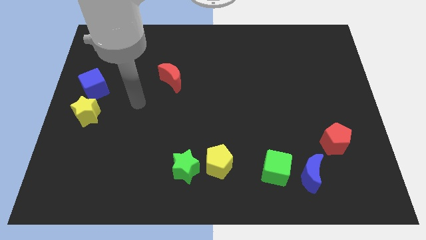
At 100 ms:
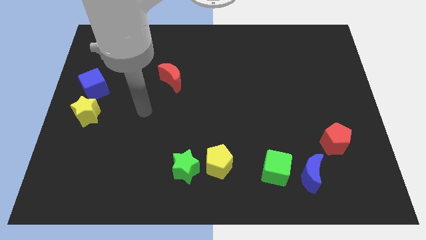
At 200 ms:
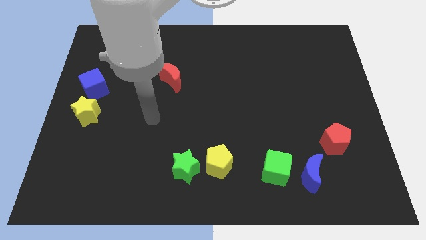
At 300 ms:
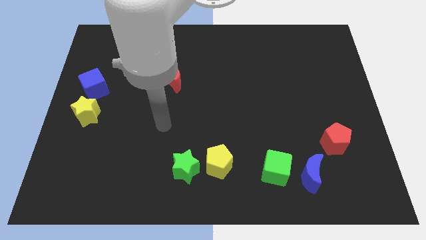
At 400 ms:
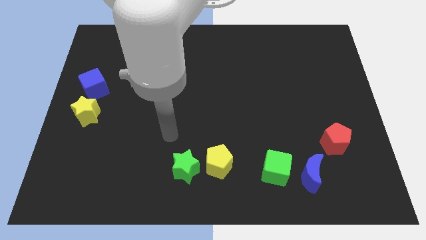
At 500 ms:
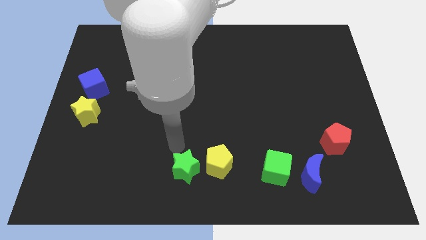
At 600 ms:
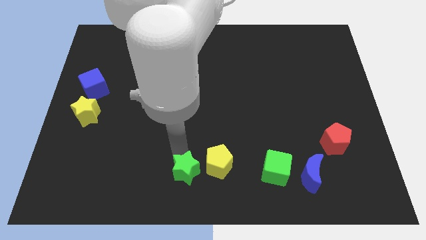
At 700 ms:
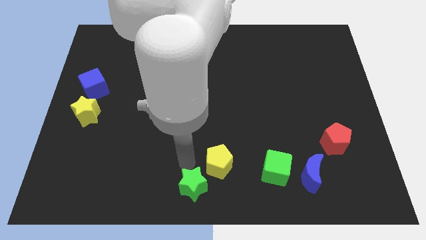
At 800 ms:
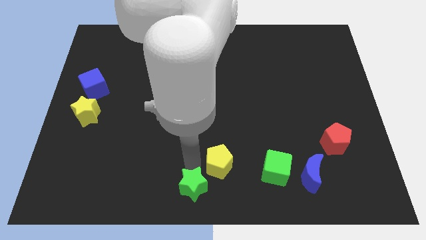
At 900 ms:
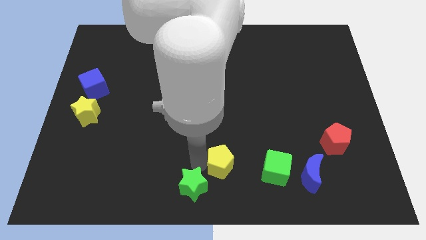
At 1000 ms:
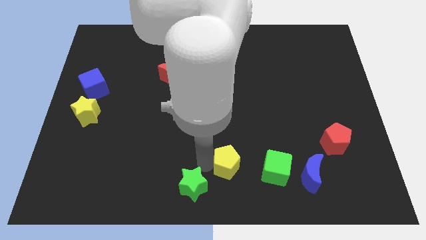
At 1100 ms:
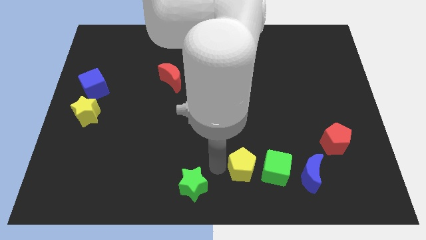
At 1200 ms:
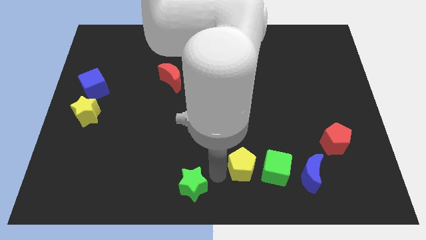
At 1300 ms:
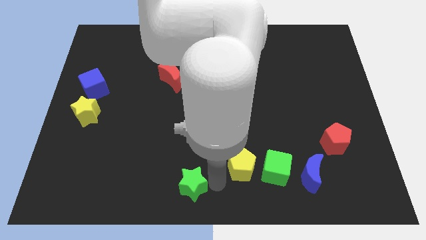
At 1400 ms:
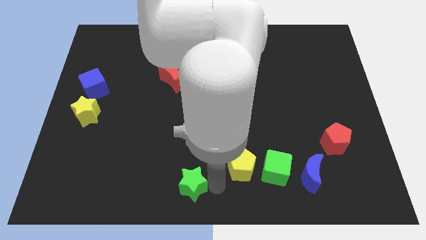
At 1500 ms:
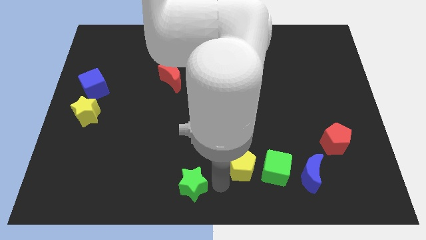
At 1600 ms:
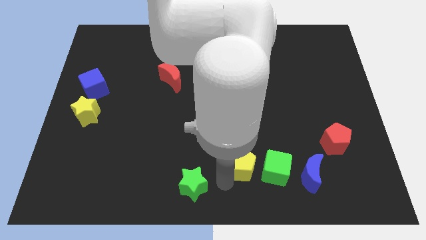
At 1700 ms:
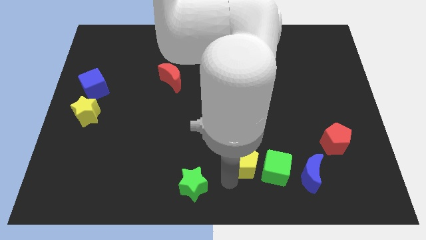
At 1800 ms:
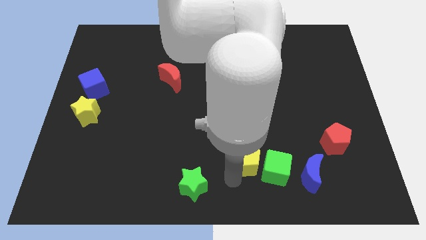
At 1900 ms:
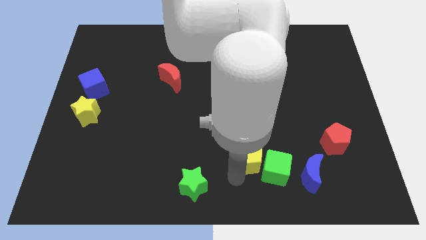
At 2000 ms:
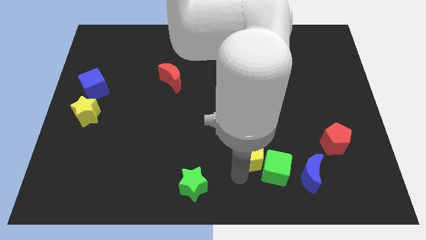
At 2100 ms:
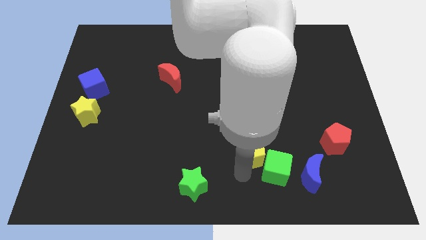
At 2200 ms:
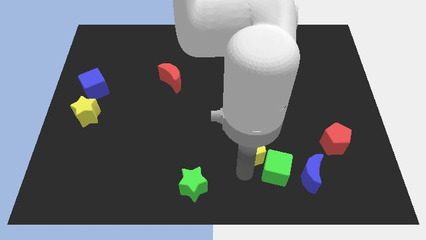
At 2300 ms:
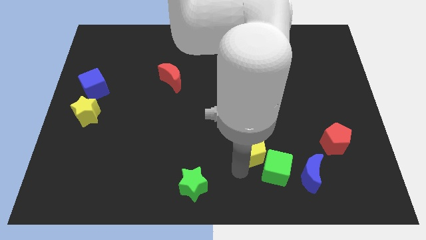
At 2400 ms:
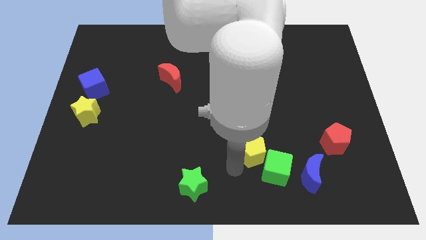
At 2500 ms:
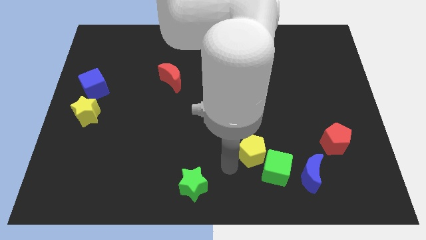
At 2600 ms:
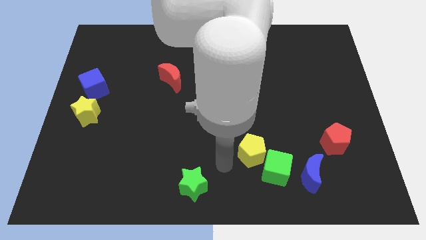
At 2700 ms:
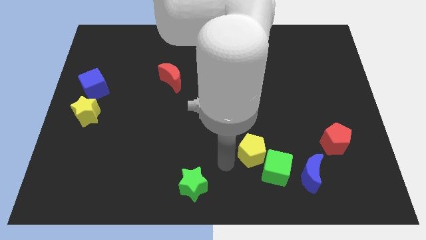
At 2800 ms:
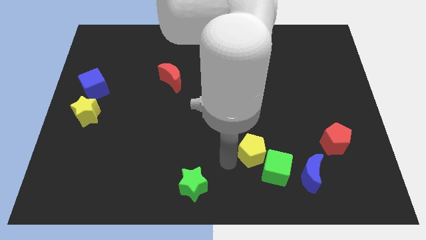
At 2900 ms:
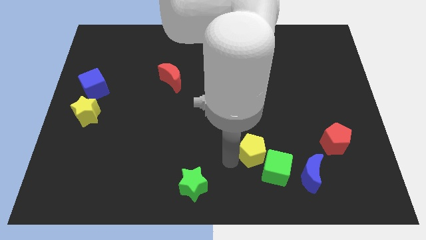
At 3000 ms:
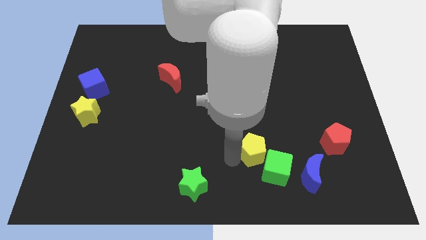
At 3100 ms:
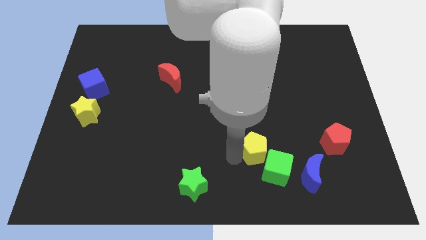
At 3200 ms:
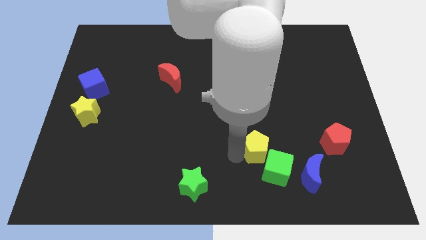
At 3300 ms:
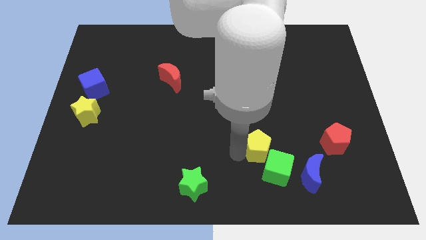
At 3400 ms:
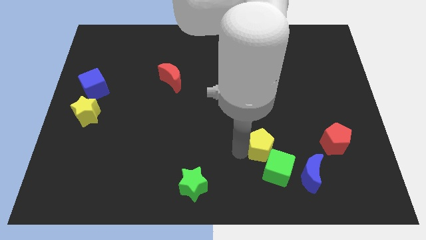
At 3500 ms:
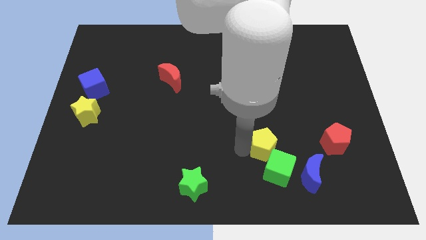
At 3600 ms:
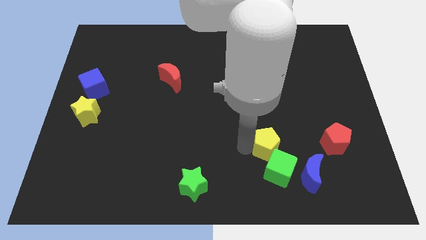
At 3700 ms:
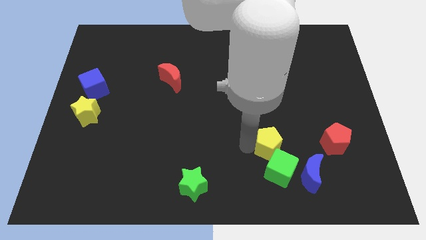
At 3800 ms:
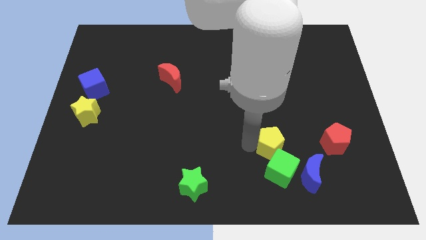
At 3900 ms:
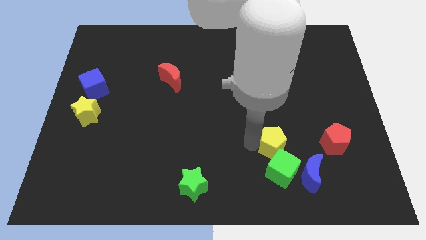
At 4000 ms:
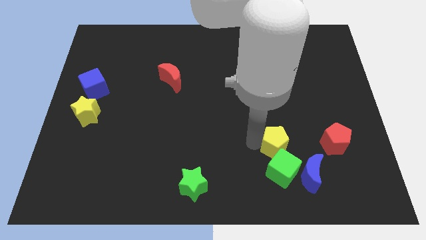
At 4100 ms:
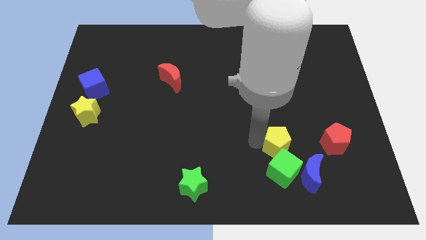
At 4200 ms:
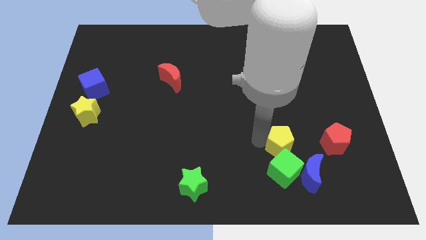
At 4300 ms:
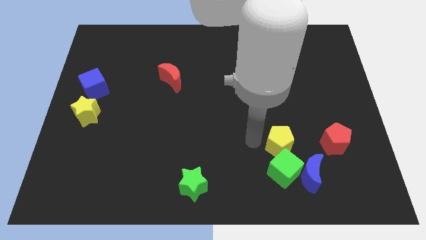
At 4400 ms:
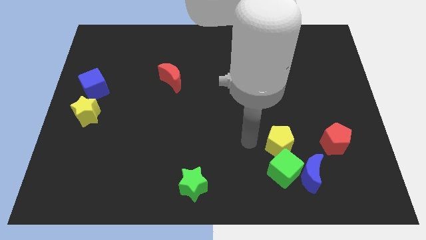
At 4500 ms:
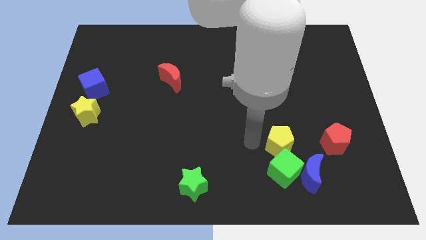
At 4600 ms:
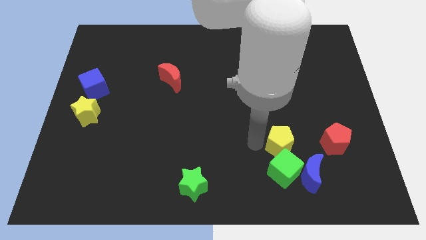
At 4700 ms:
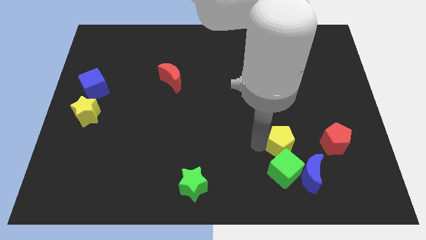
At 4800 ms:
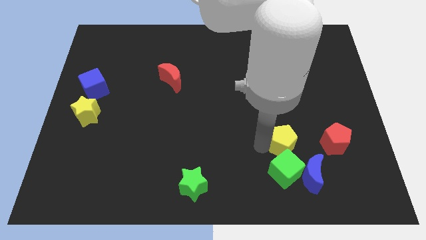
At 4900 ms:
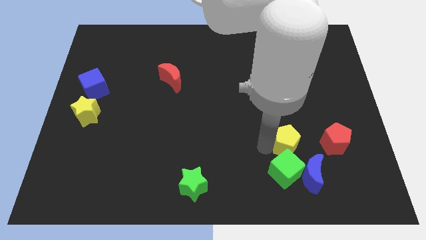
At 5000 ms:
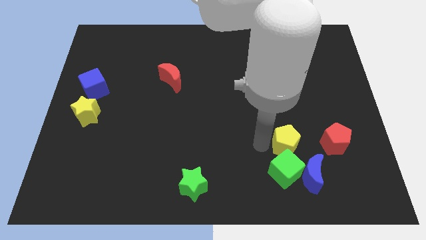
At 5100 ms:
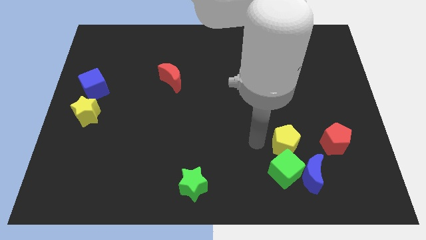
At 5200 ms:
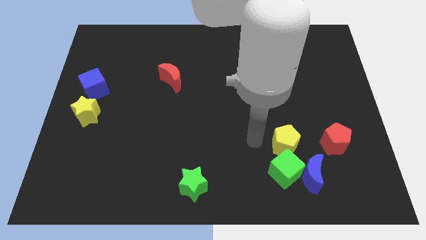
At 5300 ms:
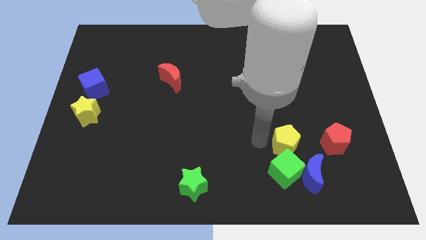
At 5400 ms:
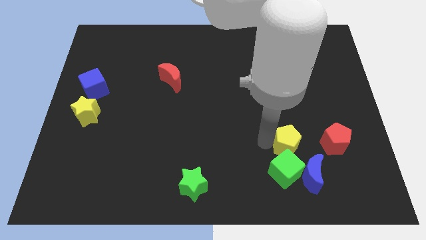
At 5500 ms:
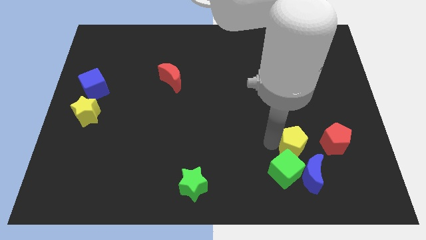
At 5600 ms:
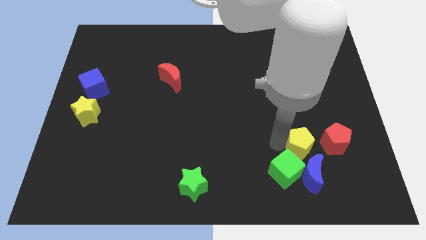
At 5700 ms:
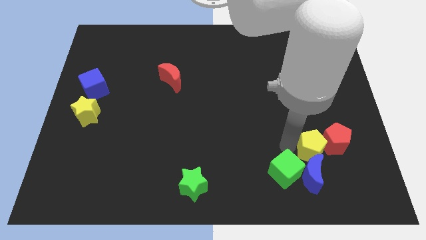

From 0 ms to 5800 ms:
put the yellow pentagon next to the red pentagon

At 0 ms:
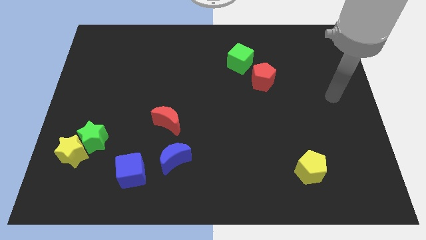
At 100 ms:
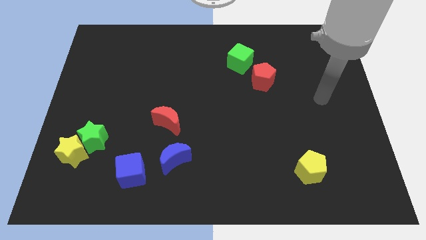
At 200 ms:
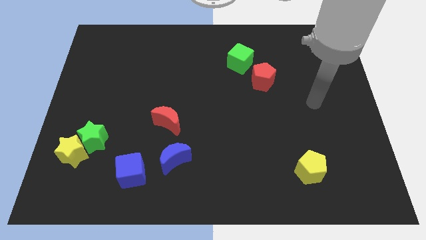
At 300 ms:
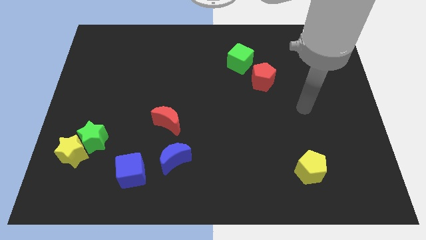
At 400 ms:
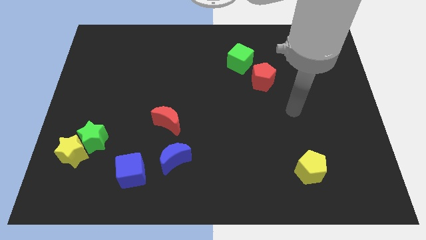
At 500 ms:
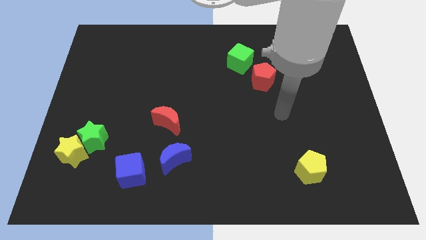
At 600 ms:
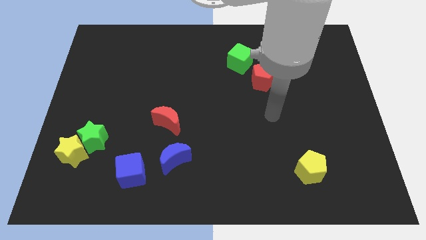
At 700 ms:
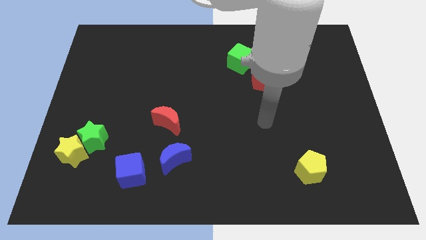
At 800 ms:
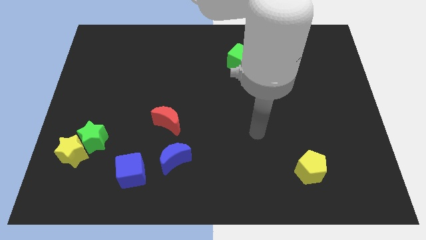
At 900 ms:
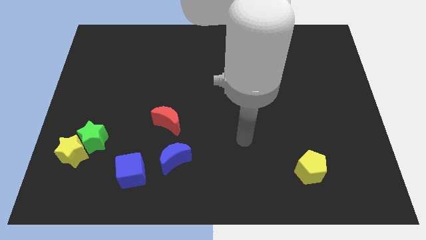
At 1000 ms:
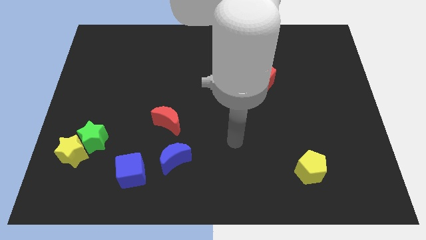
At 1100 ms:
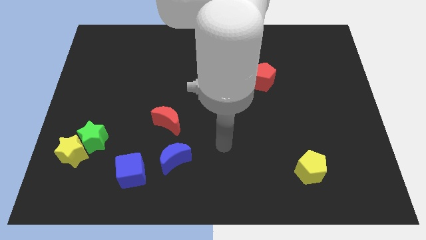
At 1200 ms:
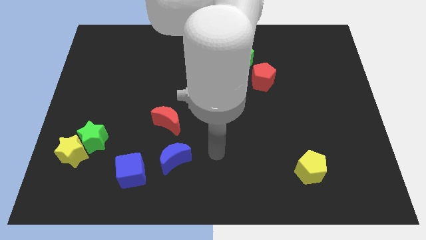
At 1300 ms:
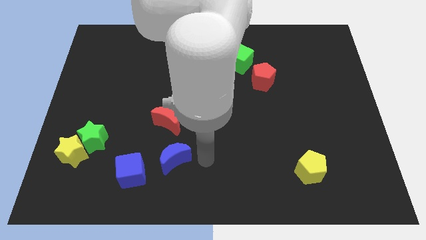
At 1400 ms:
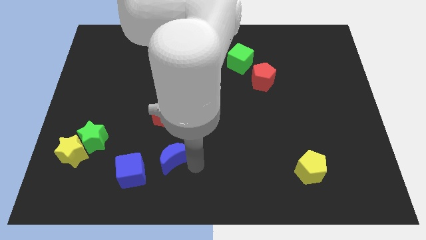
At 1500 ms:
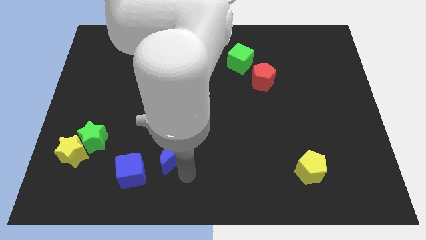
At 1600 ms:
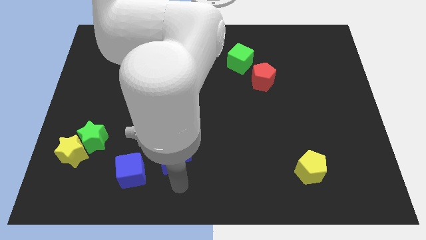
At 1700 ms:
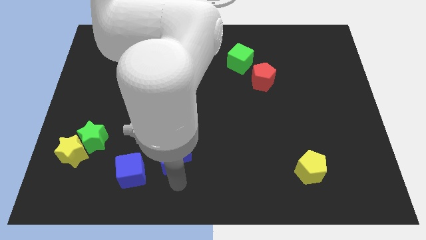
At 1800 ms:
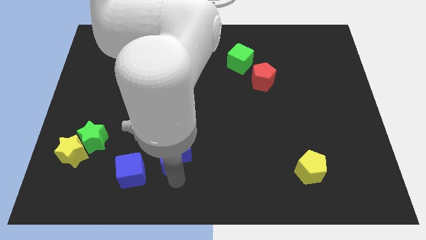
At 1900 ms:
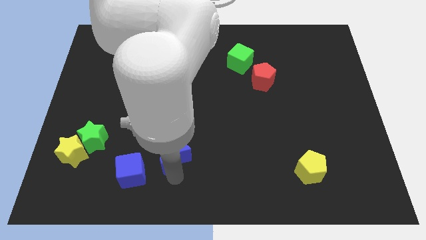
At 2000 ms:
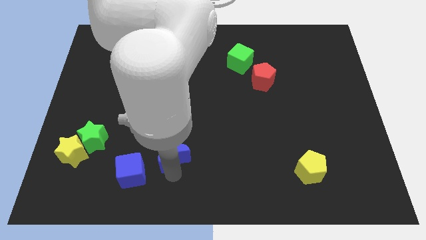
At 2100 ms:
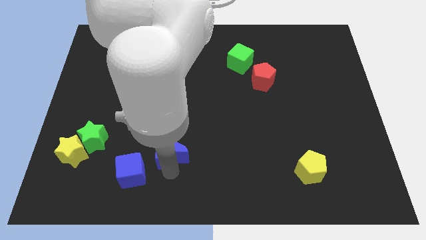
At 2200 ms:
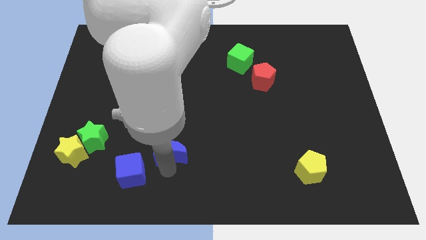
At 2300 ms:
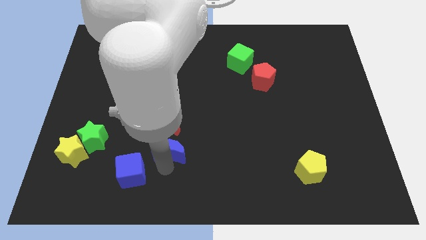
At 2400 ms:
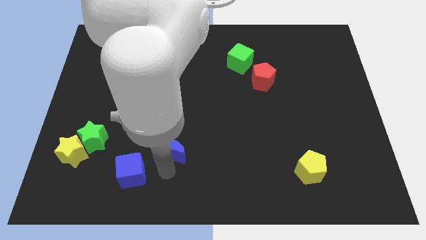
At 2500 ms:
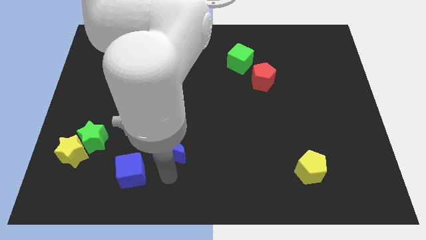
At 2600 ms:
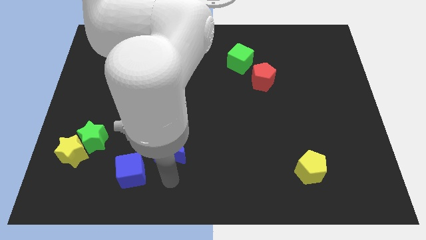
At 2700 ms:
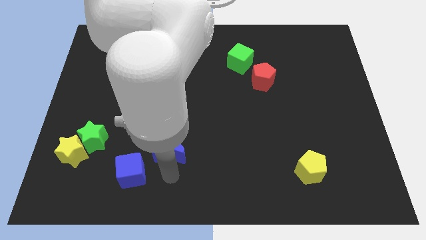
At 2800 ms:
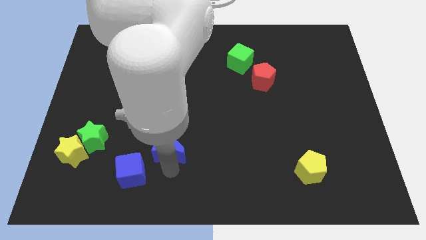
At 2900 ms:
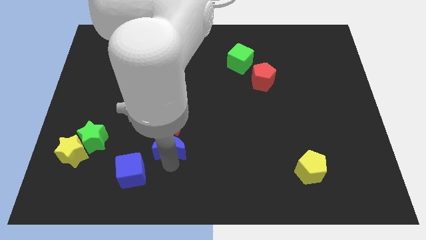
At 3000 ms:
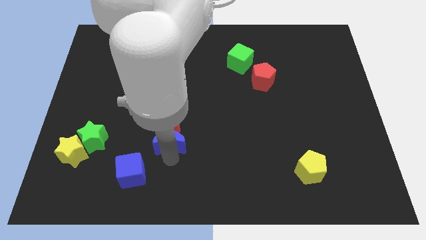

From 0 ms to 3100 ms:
slide the blue moon next to the red moon
